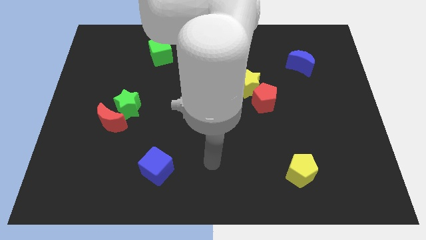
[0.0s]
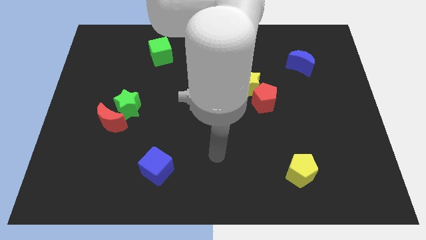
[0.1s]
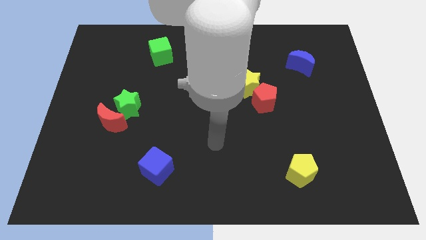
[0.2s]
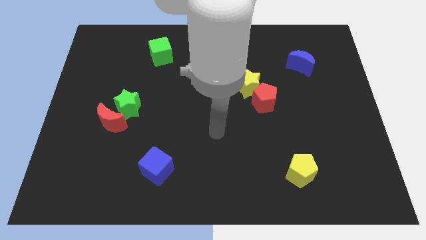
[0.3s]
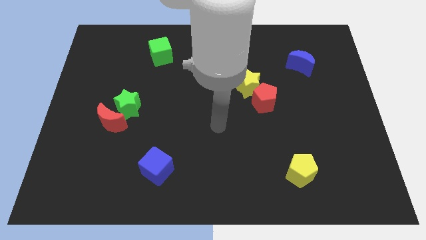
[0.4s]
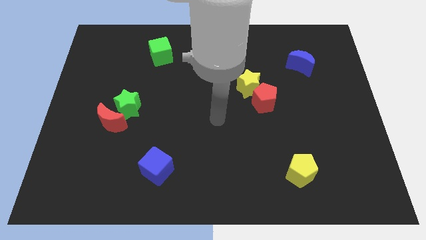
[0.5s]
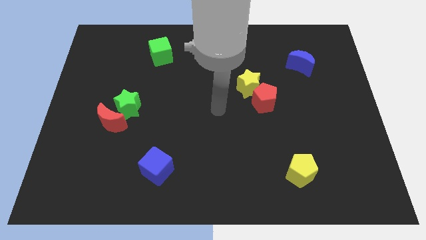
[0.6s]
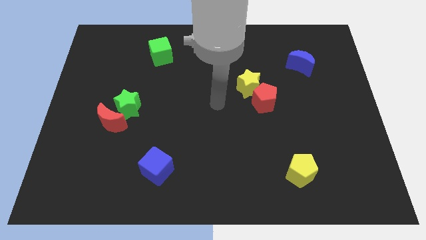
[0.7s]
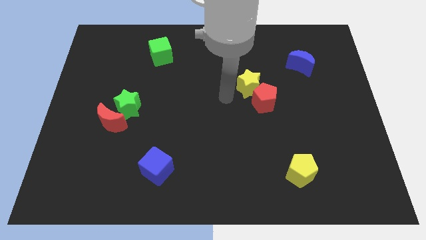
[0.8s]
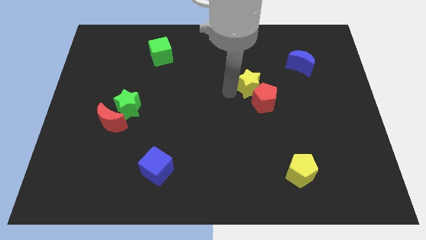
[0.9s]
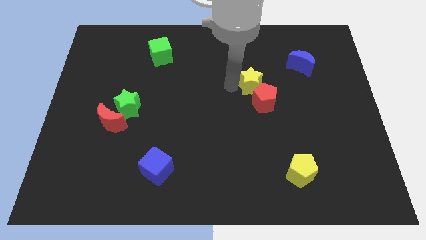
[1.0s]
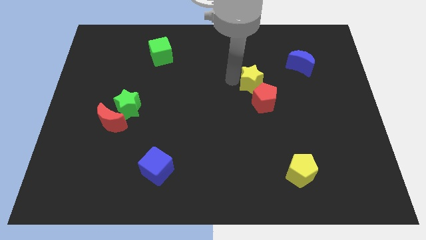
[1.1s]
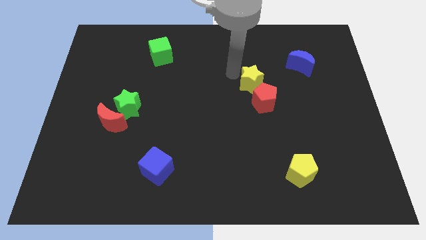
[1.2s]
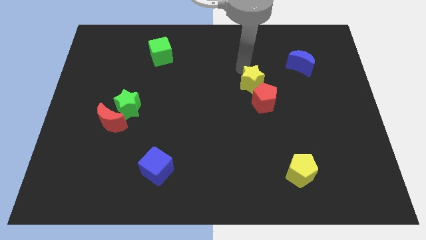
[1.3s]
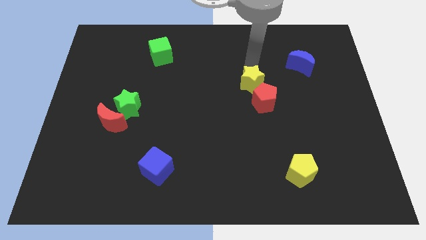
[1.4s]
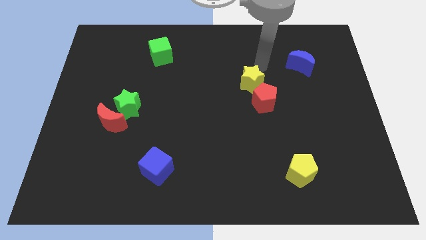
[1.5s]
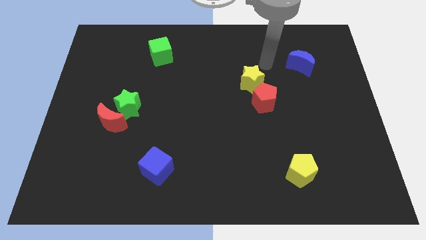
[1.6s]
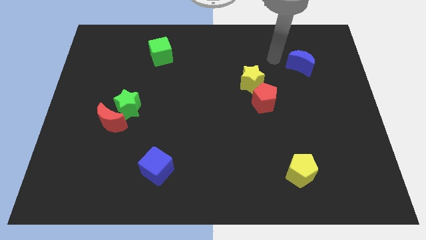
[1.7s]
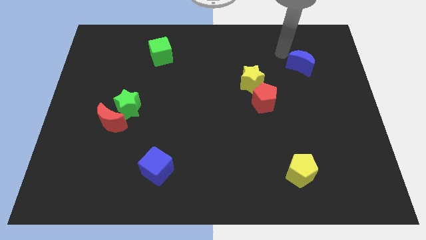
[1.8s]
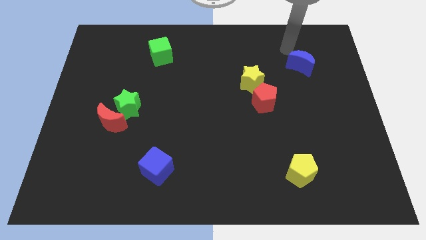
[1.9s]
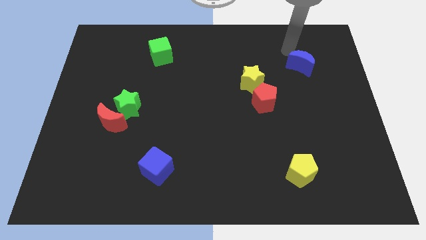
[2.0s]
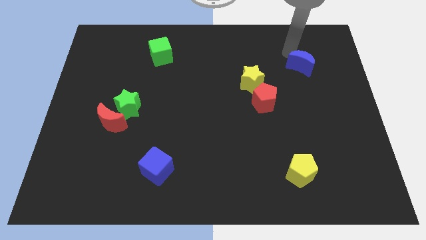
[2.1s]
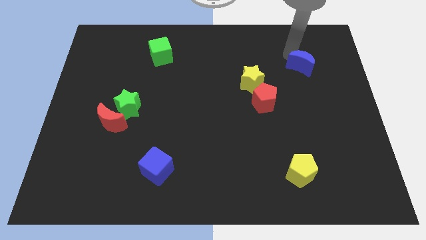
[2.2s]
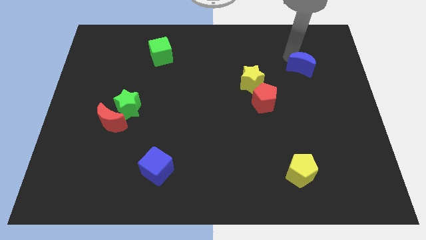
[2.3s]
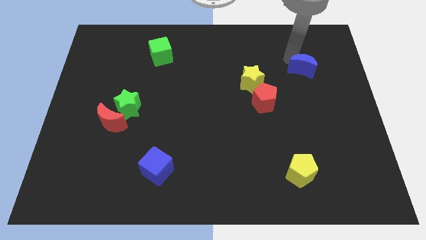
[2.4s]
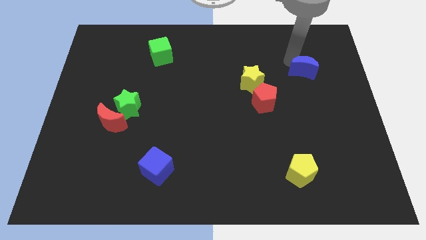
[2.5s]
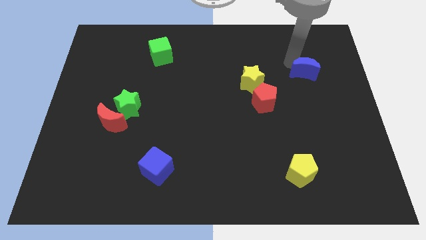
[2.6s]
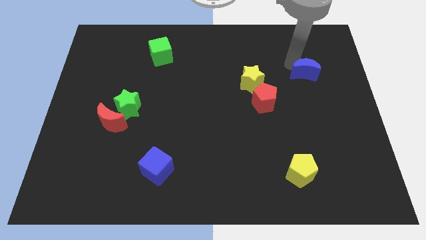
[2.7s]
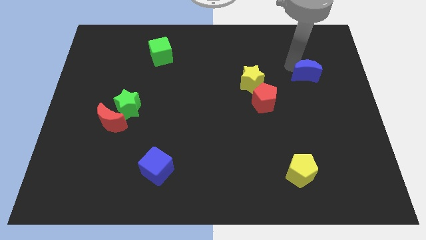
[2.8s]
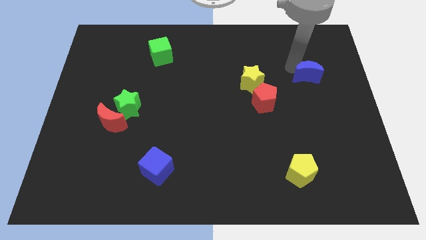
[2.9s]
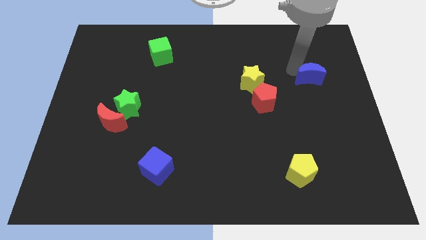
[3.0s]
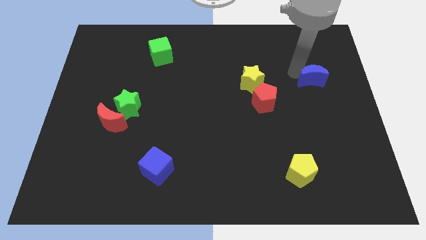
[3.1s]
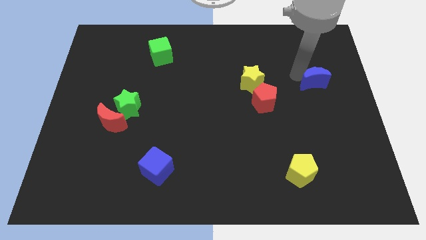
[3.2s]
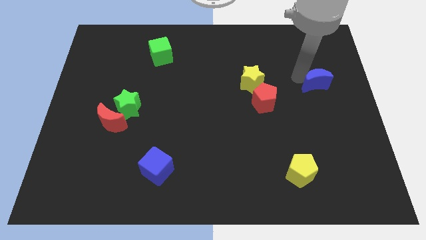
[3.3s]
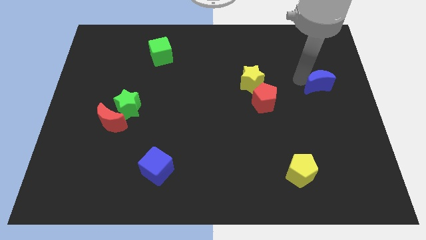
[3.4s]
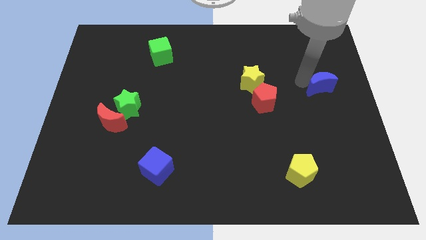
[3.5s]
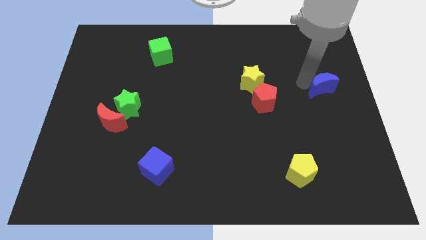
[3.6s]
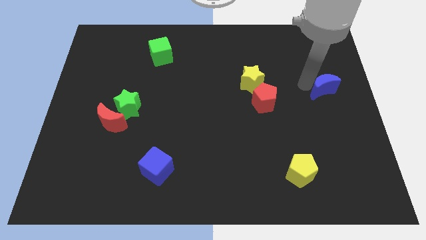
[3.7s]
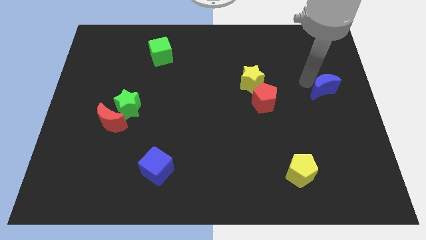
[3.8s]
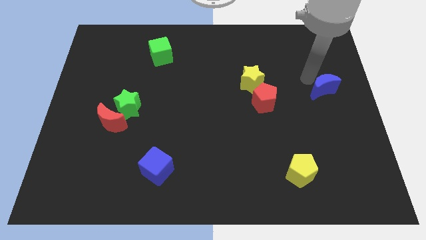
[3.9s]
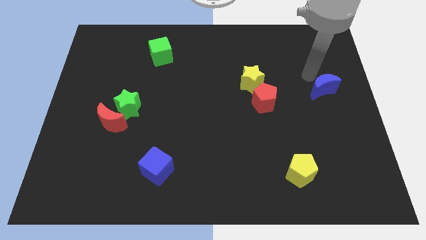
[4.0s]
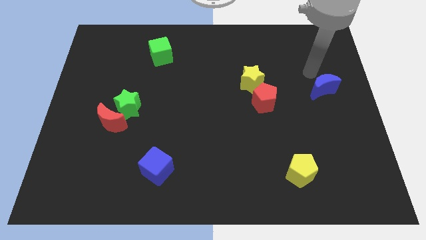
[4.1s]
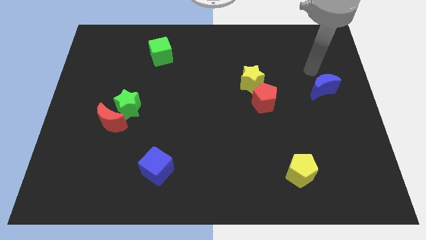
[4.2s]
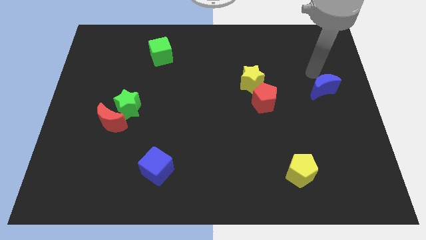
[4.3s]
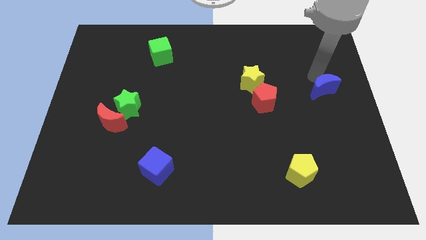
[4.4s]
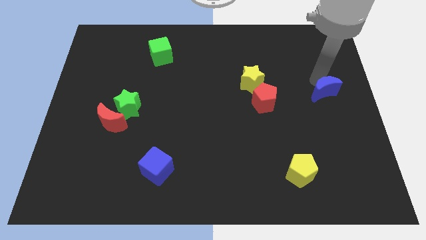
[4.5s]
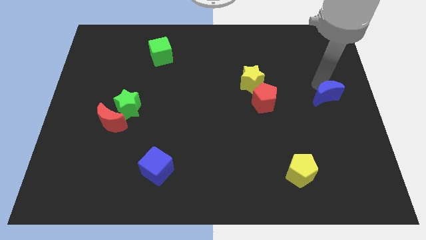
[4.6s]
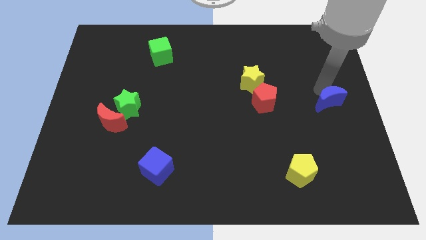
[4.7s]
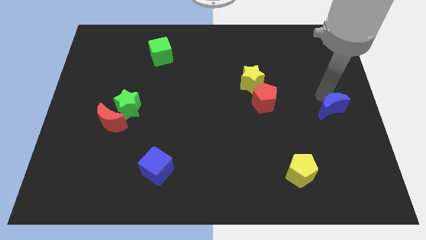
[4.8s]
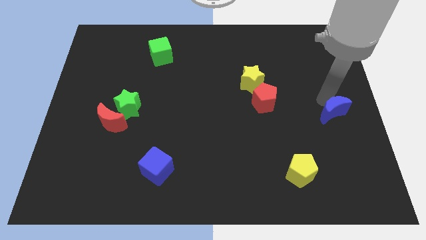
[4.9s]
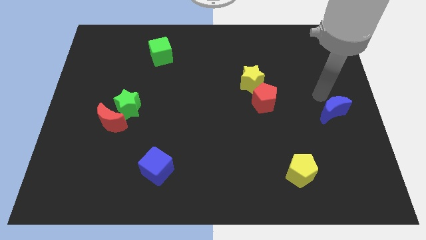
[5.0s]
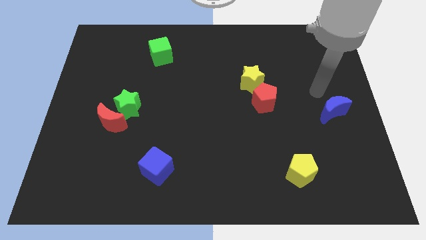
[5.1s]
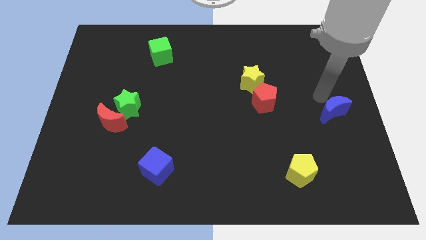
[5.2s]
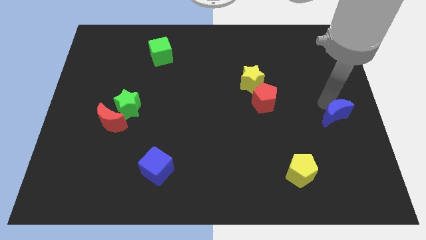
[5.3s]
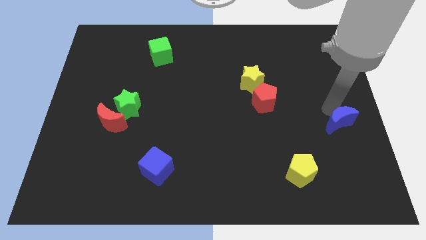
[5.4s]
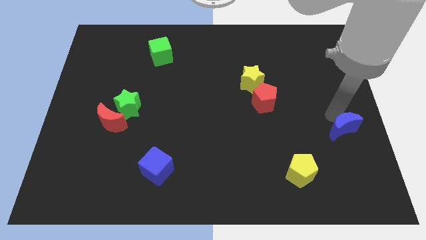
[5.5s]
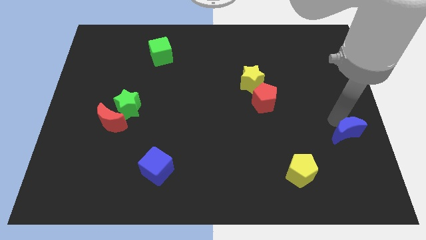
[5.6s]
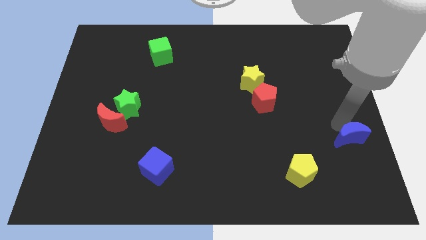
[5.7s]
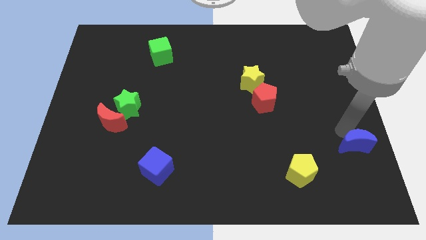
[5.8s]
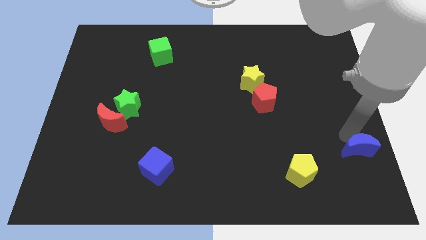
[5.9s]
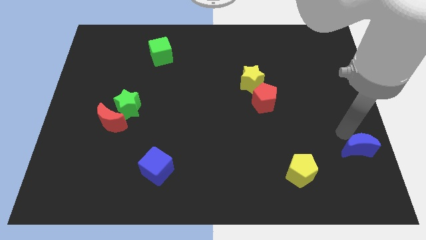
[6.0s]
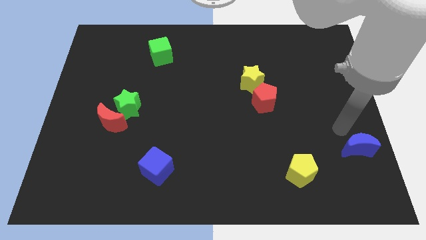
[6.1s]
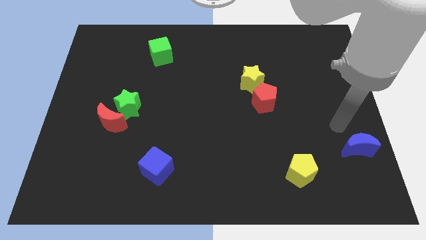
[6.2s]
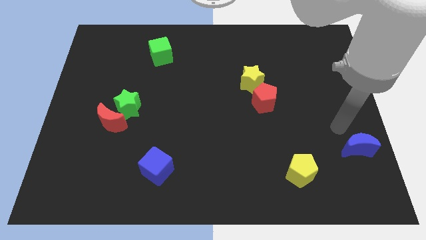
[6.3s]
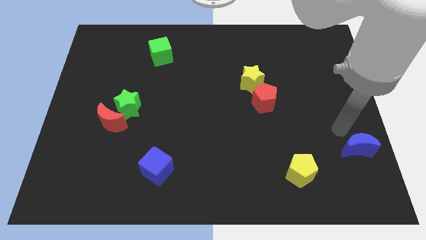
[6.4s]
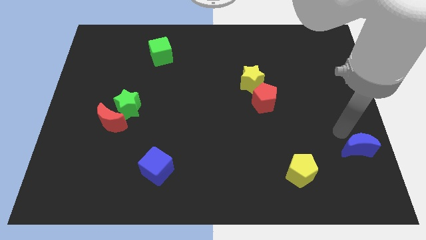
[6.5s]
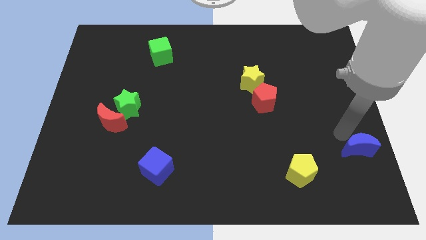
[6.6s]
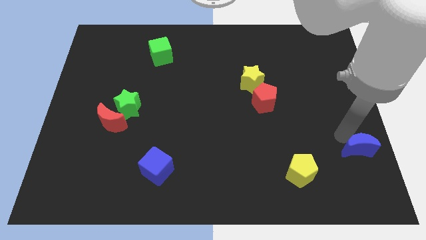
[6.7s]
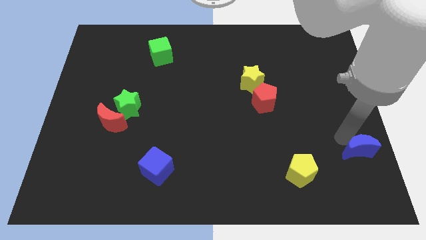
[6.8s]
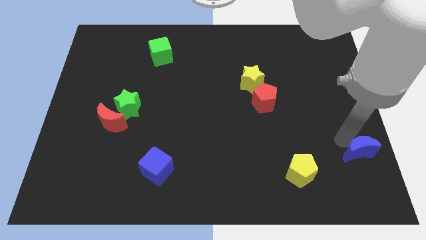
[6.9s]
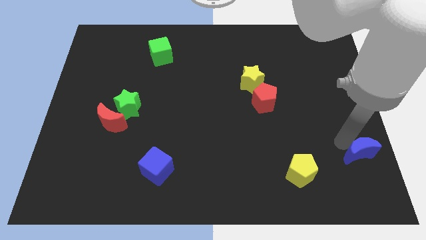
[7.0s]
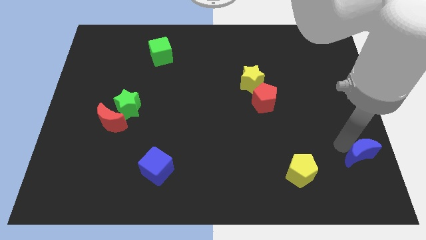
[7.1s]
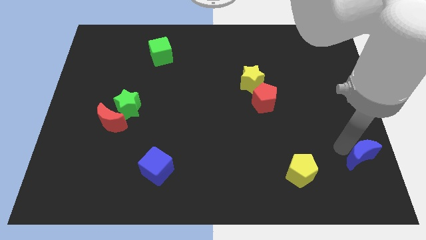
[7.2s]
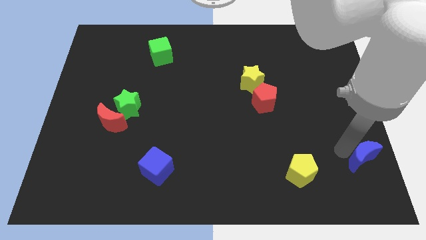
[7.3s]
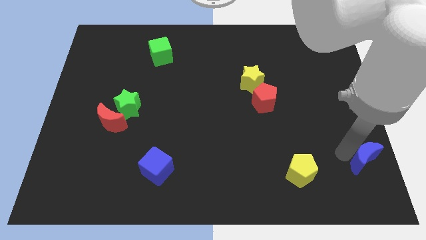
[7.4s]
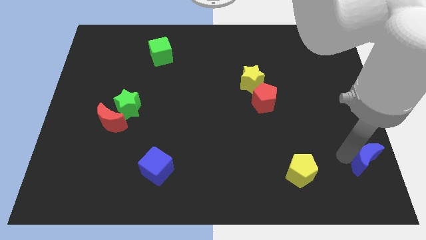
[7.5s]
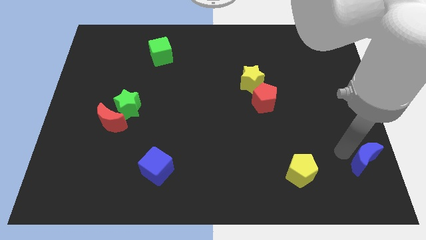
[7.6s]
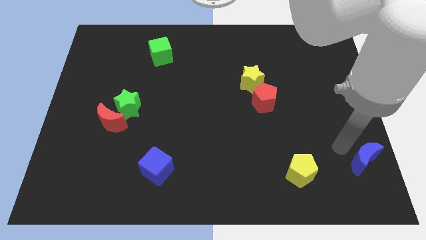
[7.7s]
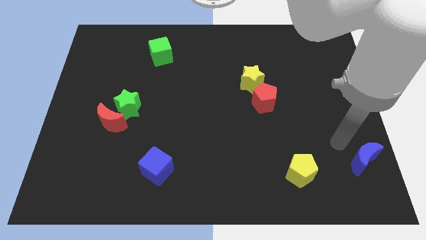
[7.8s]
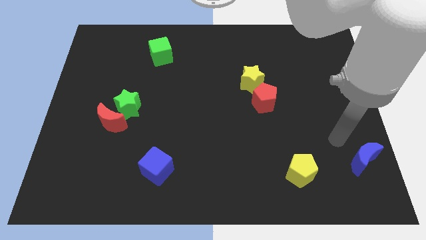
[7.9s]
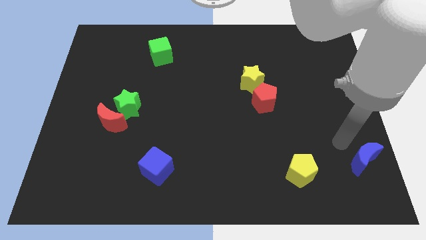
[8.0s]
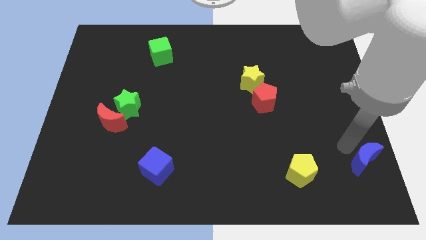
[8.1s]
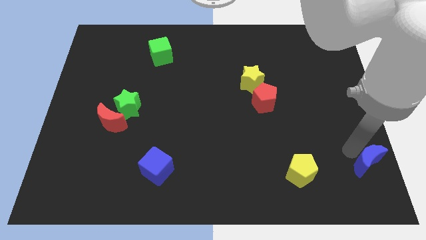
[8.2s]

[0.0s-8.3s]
slide the blue moon to the lower right corner
